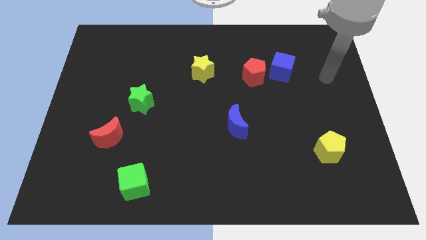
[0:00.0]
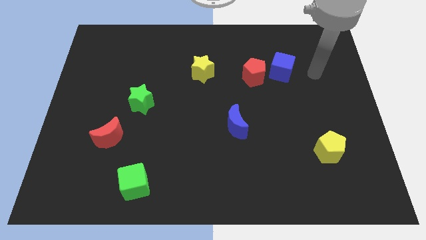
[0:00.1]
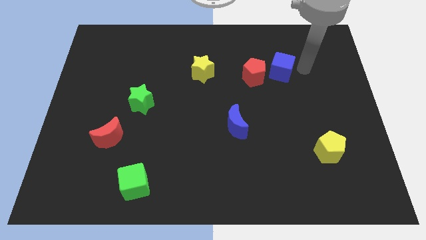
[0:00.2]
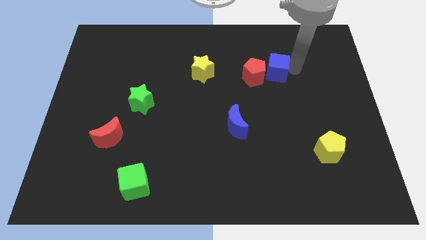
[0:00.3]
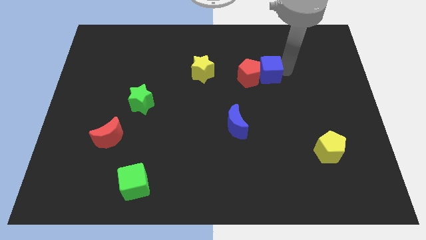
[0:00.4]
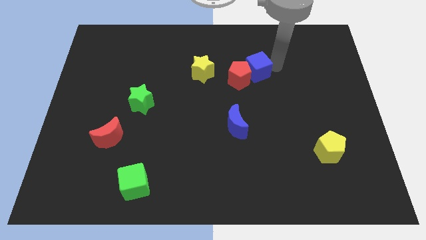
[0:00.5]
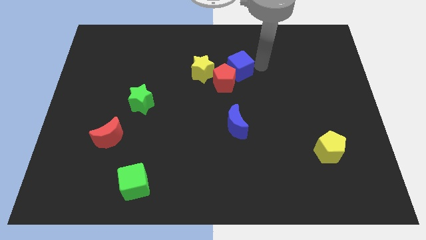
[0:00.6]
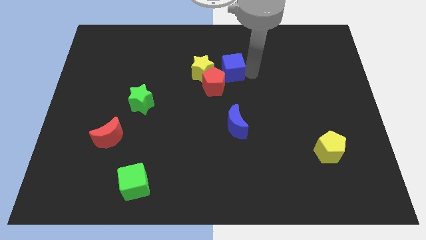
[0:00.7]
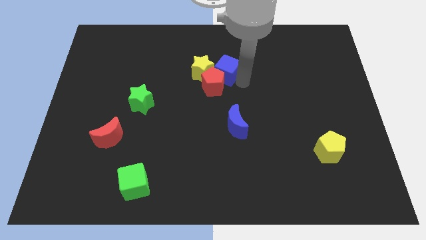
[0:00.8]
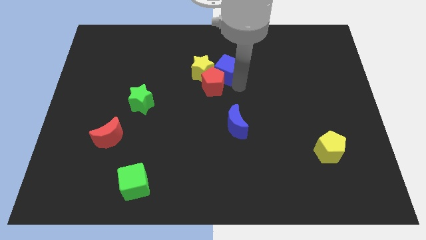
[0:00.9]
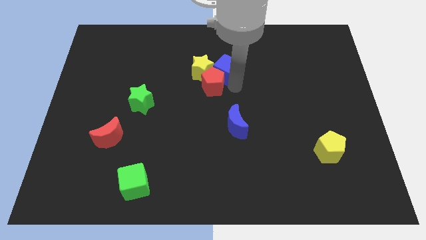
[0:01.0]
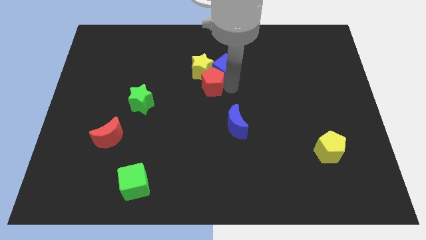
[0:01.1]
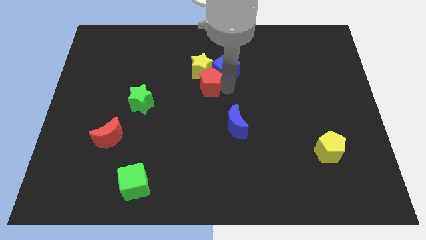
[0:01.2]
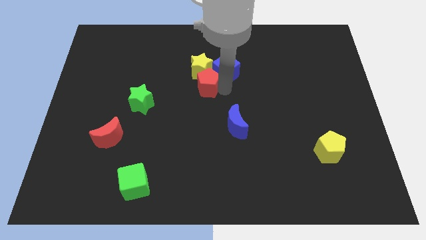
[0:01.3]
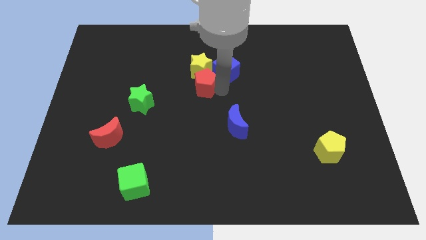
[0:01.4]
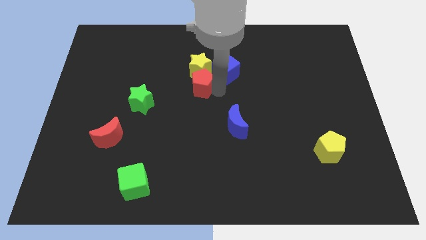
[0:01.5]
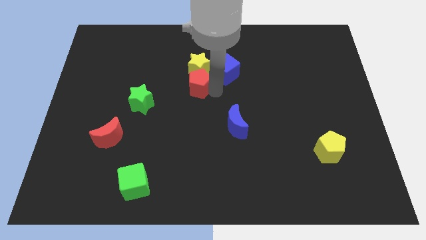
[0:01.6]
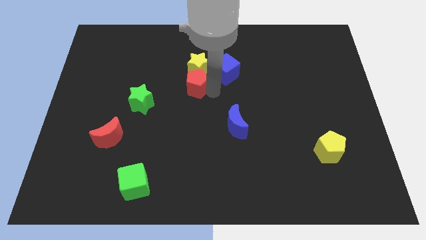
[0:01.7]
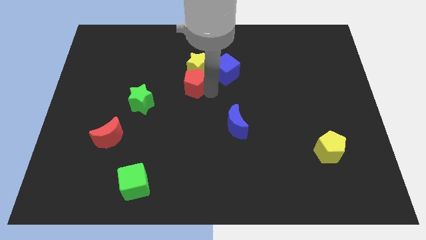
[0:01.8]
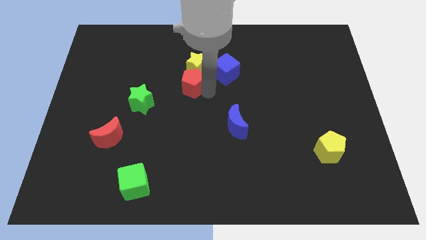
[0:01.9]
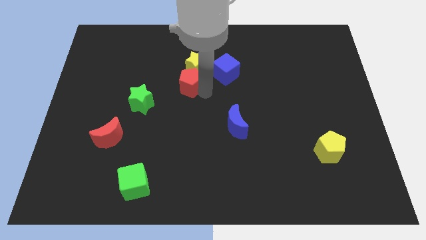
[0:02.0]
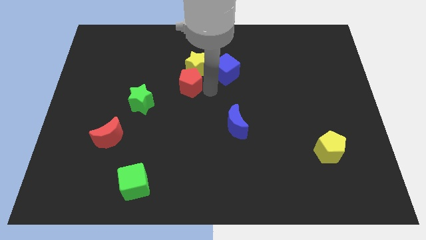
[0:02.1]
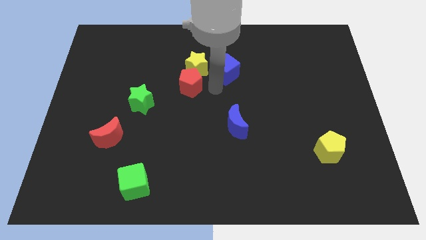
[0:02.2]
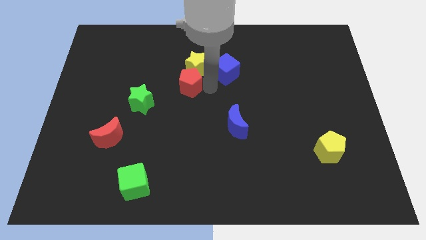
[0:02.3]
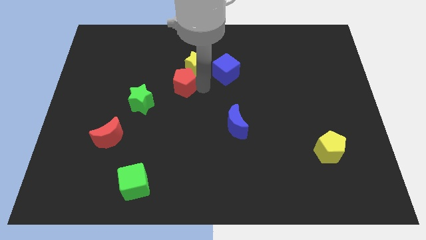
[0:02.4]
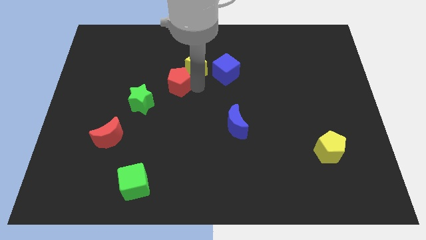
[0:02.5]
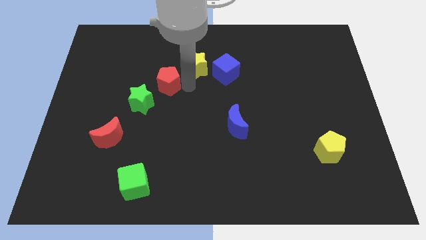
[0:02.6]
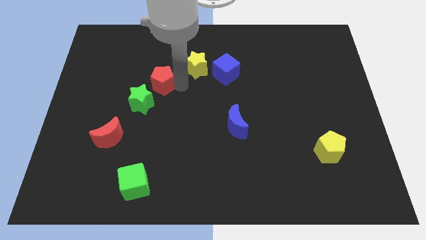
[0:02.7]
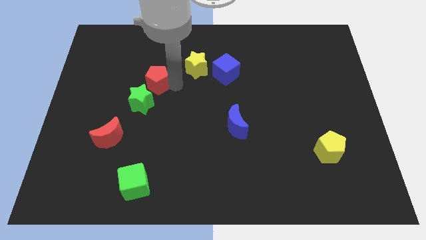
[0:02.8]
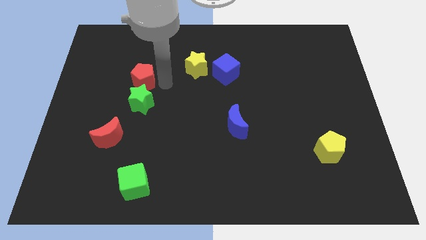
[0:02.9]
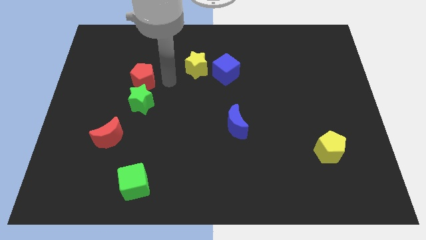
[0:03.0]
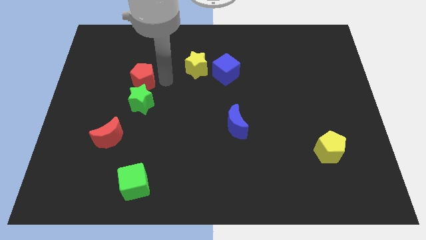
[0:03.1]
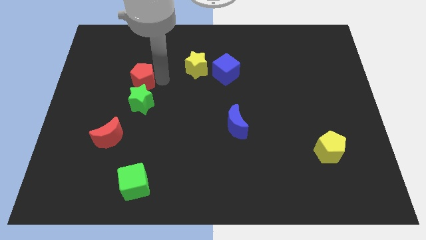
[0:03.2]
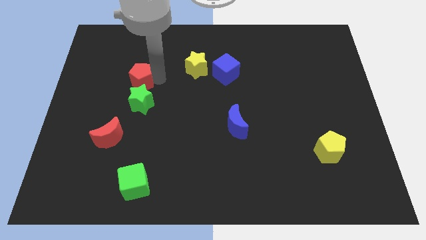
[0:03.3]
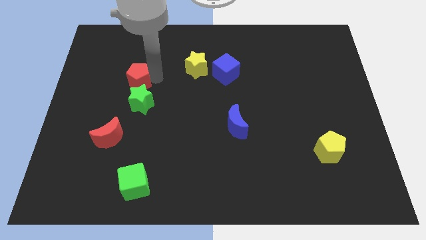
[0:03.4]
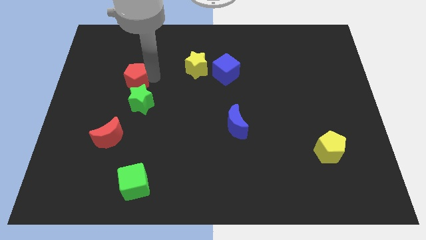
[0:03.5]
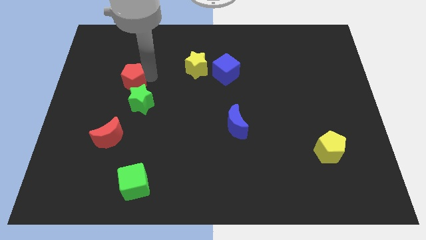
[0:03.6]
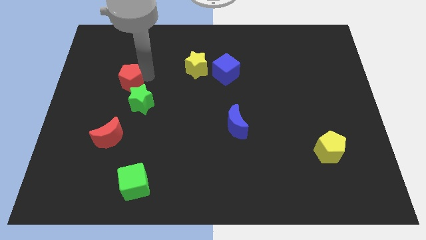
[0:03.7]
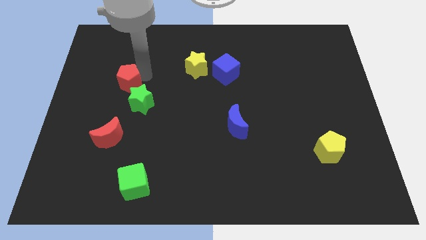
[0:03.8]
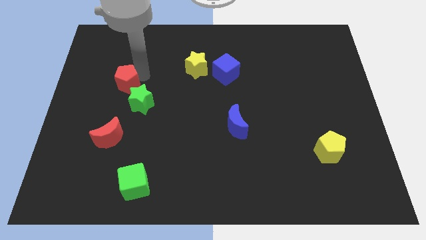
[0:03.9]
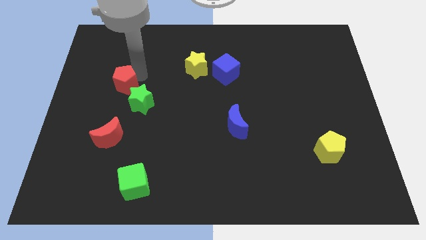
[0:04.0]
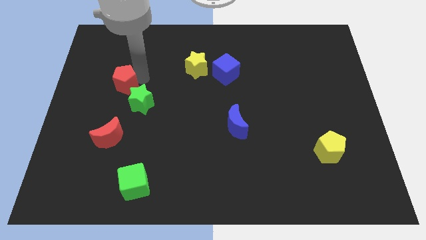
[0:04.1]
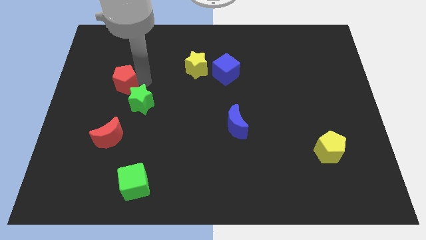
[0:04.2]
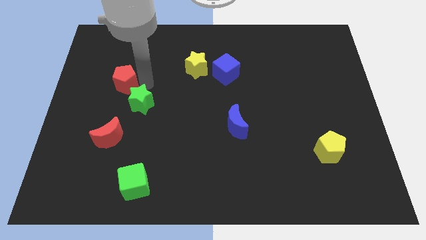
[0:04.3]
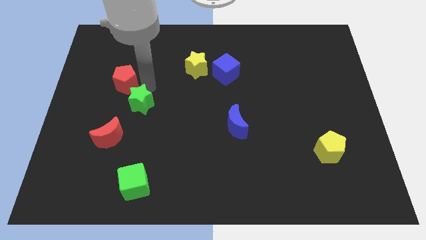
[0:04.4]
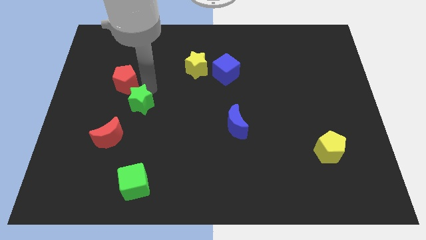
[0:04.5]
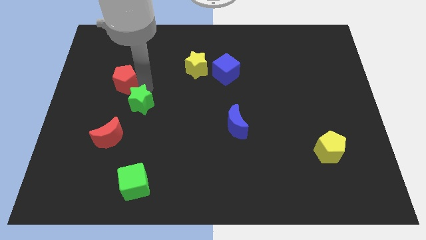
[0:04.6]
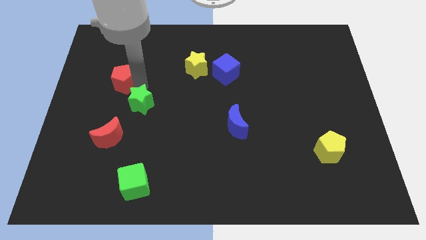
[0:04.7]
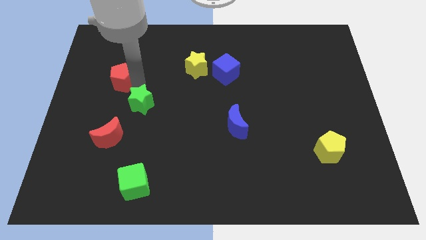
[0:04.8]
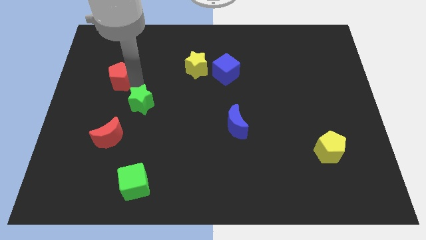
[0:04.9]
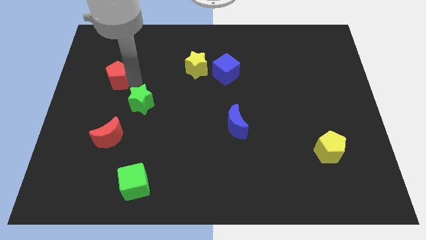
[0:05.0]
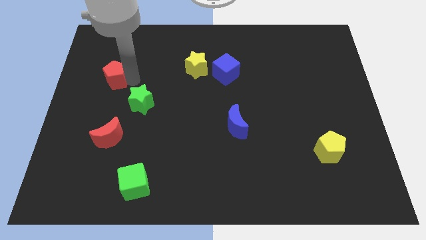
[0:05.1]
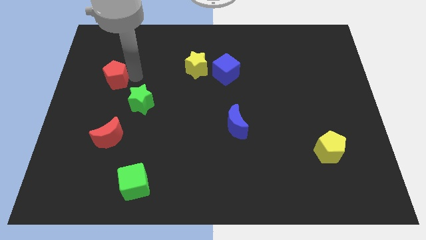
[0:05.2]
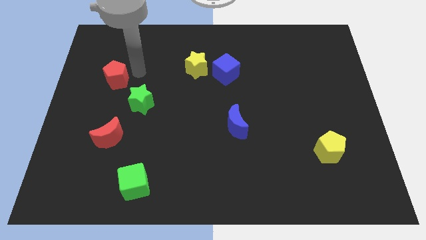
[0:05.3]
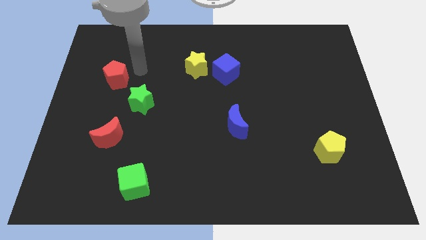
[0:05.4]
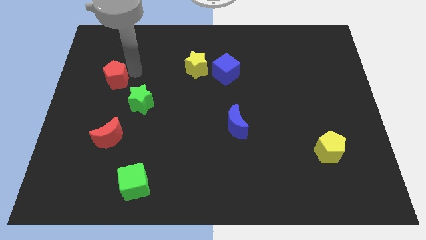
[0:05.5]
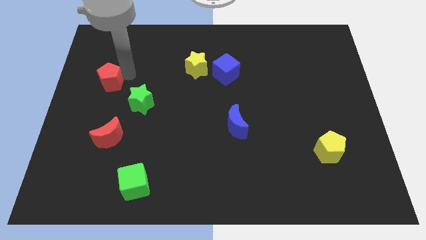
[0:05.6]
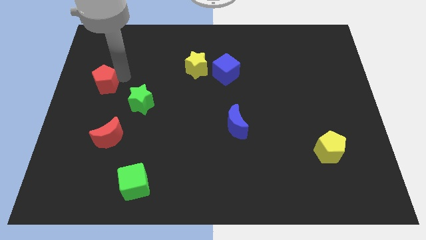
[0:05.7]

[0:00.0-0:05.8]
slide the red pentagon to the left side

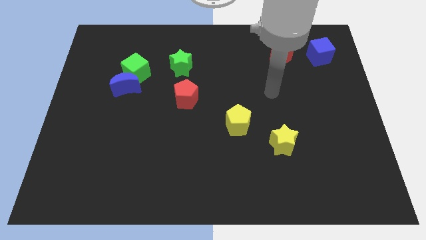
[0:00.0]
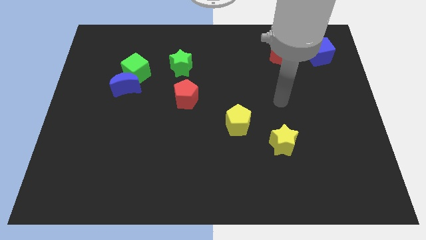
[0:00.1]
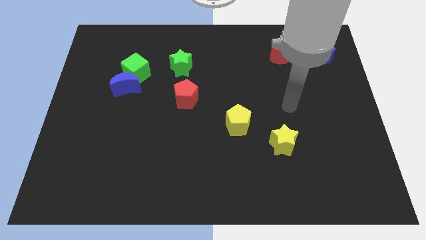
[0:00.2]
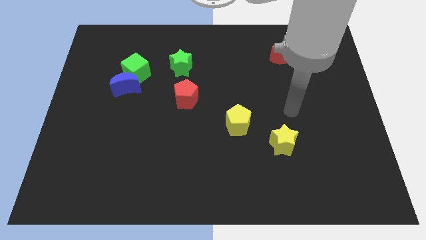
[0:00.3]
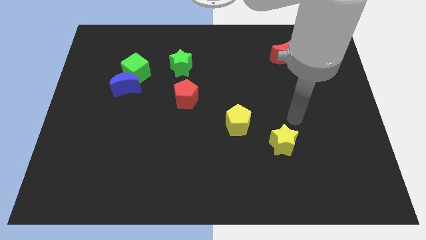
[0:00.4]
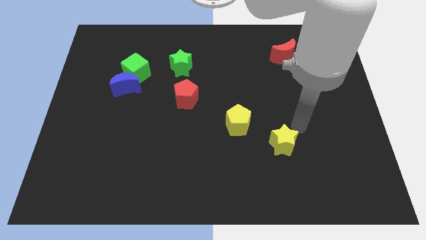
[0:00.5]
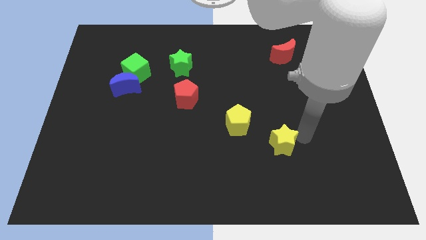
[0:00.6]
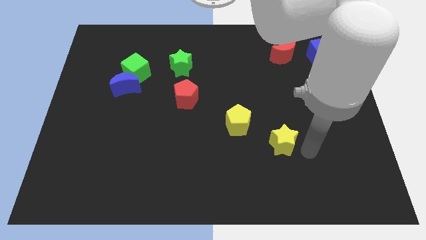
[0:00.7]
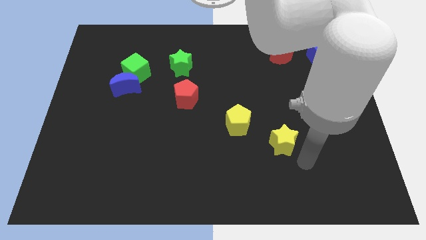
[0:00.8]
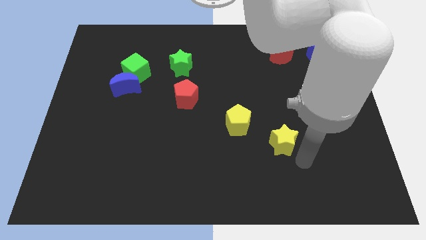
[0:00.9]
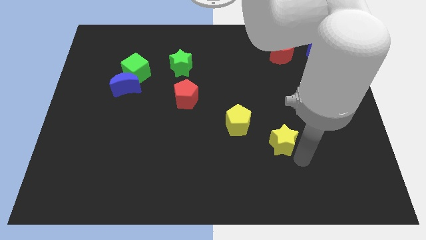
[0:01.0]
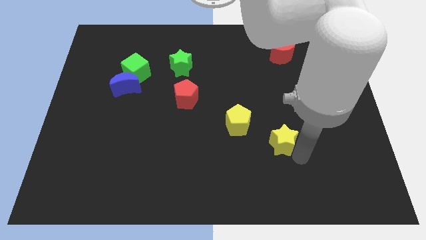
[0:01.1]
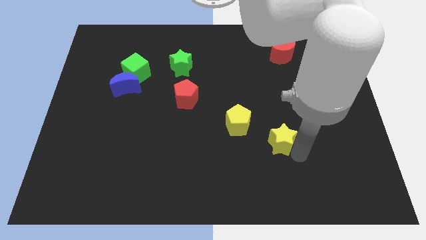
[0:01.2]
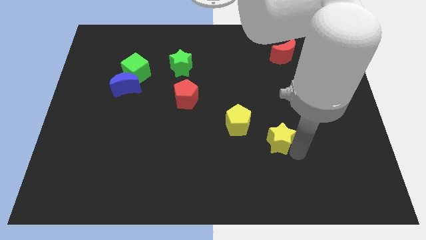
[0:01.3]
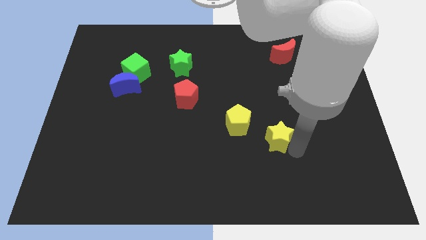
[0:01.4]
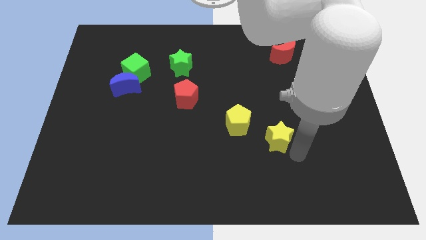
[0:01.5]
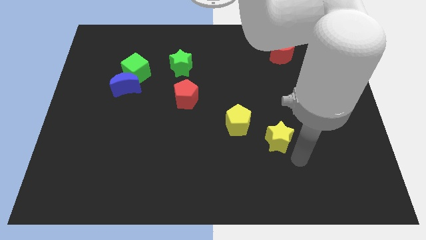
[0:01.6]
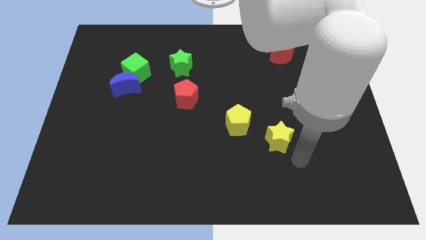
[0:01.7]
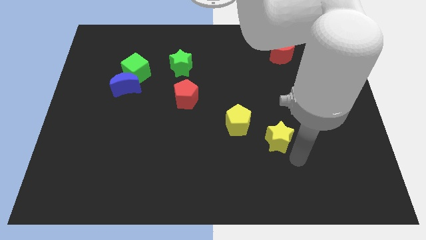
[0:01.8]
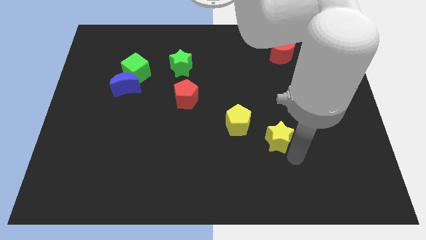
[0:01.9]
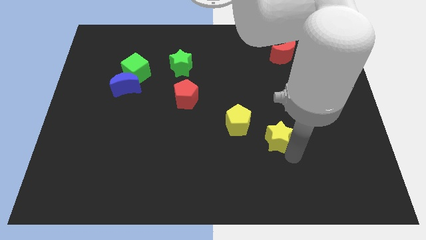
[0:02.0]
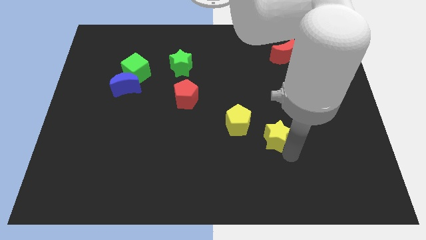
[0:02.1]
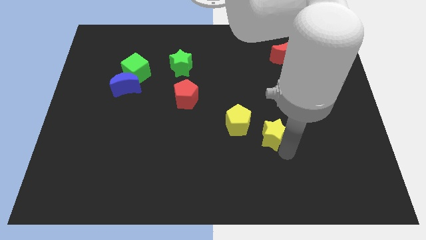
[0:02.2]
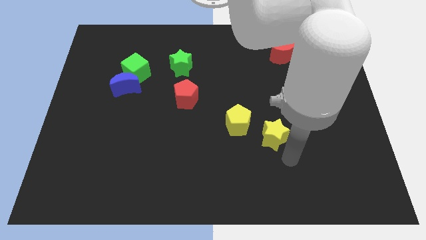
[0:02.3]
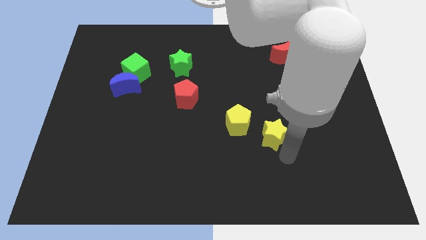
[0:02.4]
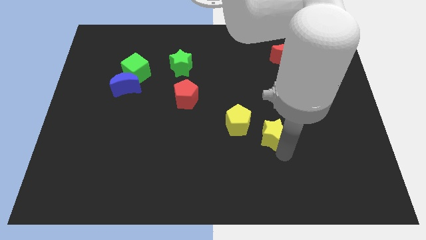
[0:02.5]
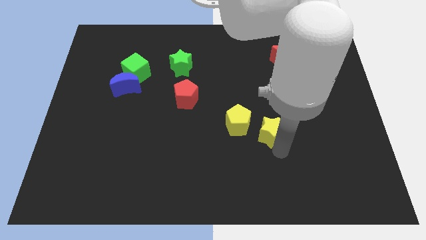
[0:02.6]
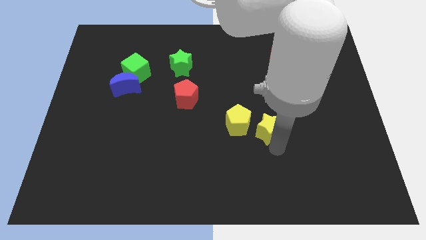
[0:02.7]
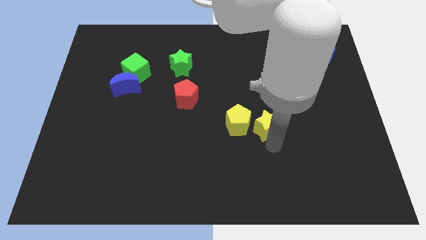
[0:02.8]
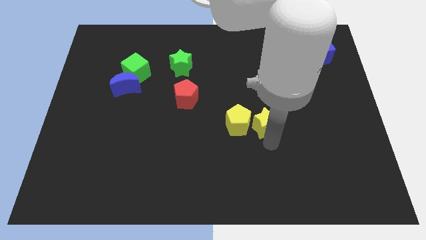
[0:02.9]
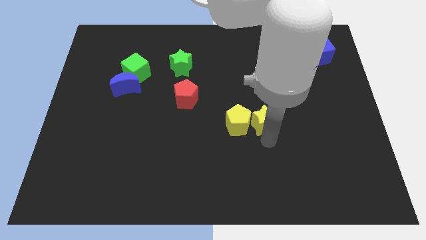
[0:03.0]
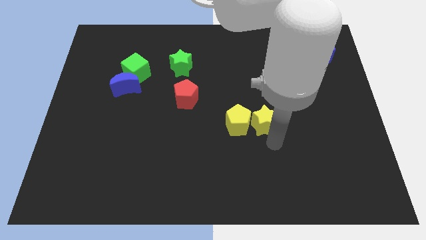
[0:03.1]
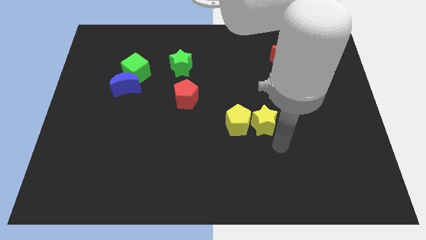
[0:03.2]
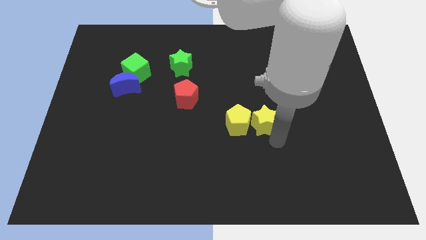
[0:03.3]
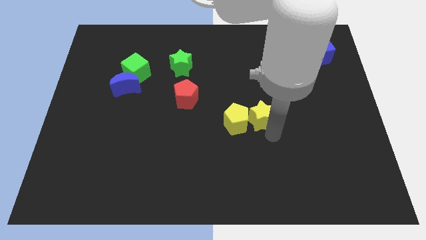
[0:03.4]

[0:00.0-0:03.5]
put the yellow star to the middle
